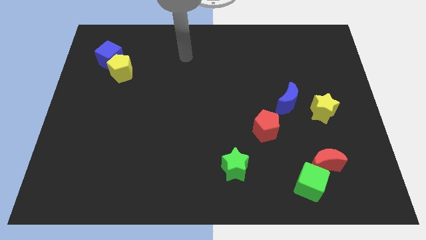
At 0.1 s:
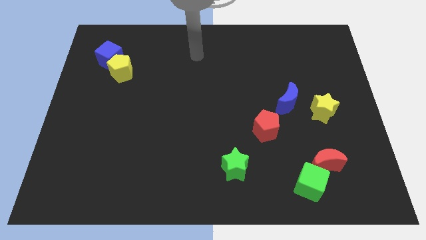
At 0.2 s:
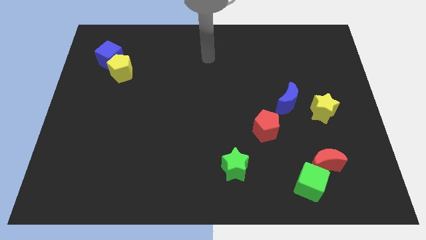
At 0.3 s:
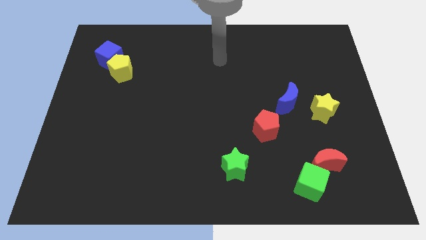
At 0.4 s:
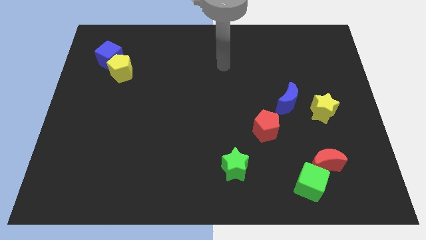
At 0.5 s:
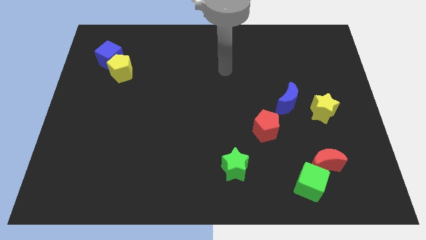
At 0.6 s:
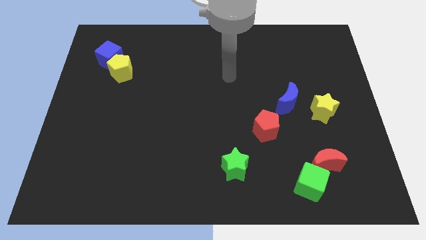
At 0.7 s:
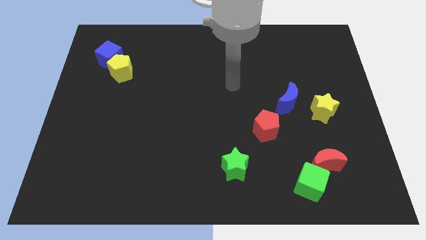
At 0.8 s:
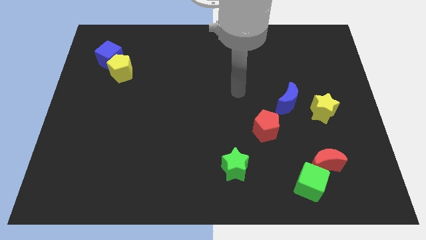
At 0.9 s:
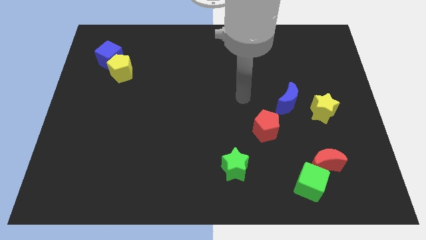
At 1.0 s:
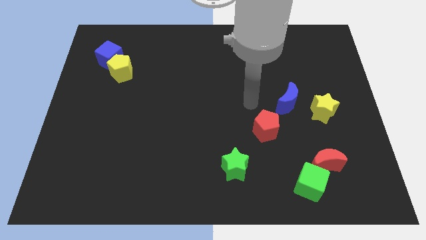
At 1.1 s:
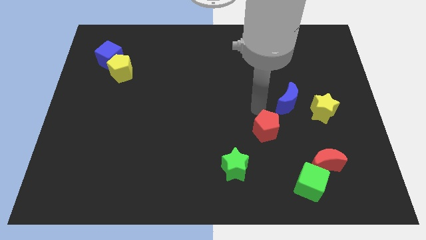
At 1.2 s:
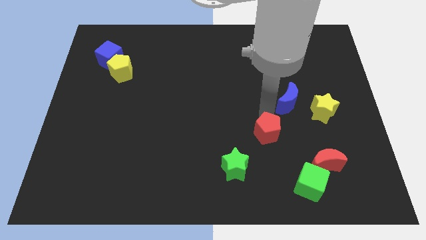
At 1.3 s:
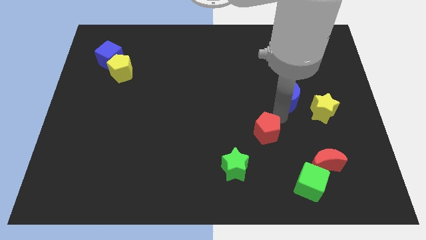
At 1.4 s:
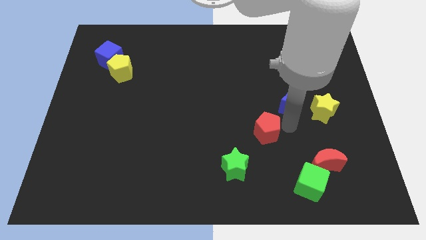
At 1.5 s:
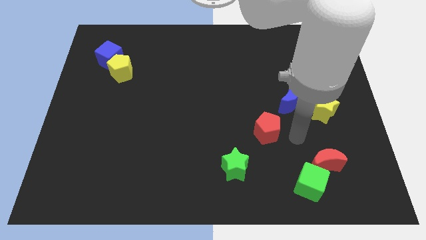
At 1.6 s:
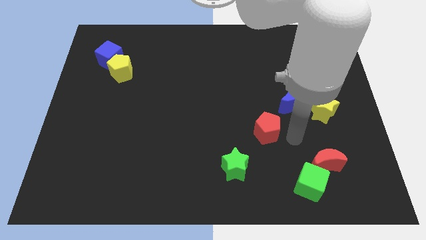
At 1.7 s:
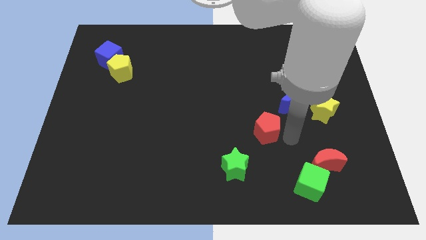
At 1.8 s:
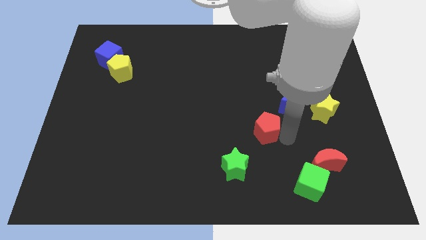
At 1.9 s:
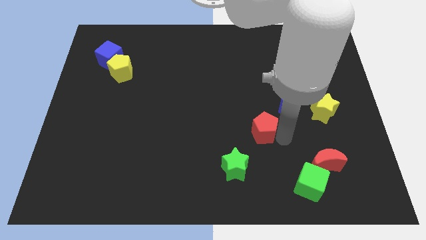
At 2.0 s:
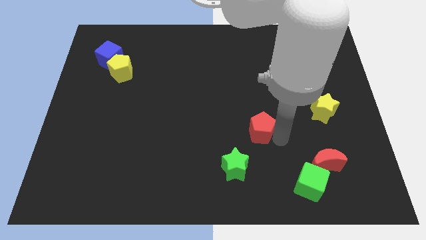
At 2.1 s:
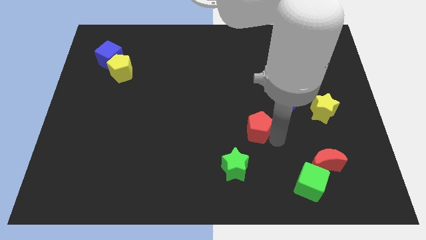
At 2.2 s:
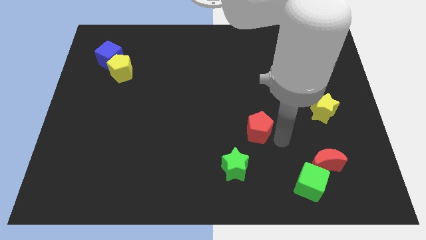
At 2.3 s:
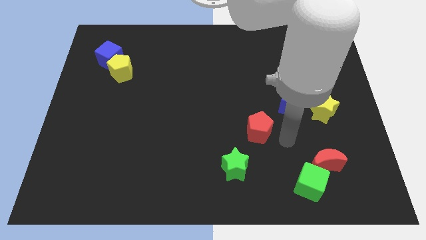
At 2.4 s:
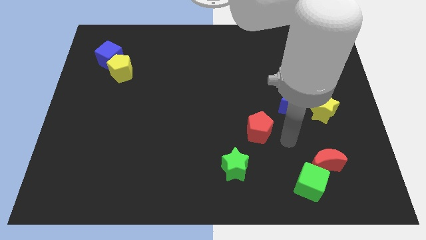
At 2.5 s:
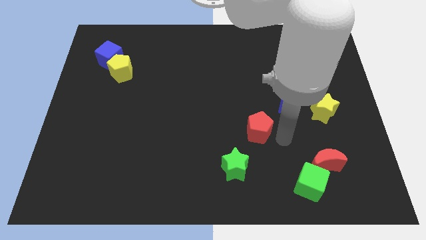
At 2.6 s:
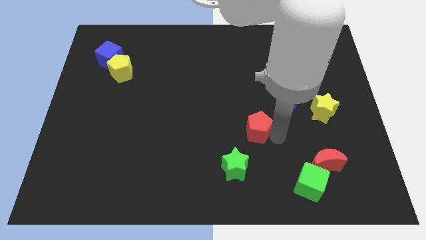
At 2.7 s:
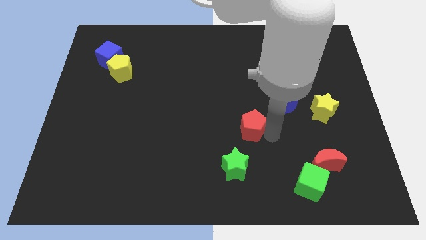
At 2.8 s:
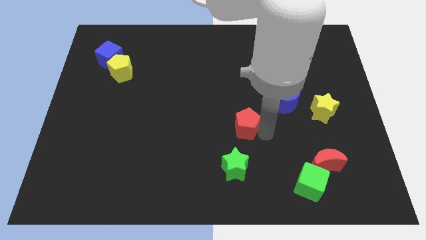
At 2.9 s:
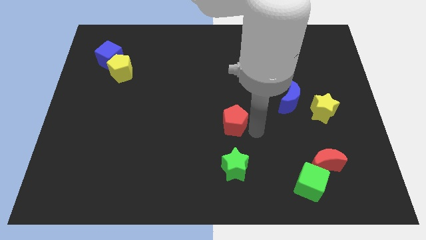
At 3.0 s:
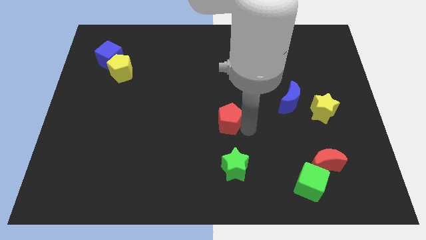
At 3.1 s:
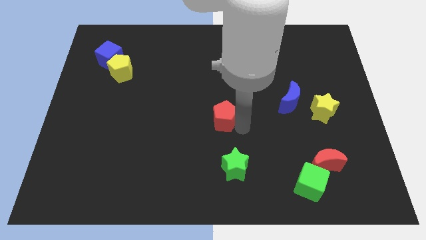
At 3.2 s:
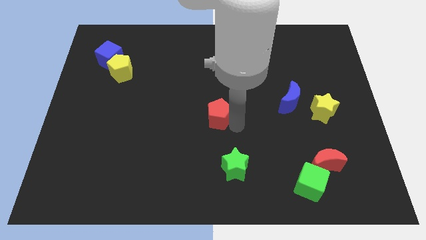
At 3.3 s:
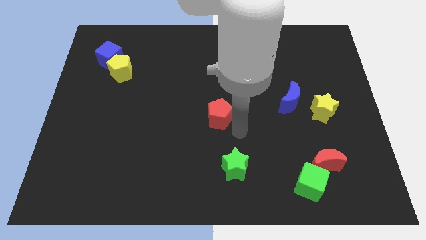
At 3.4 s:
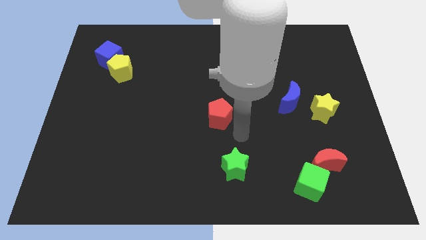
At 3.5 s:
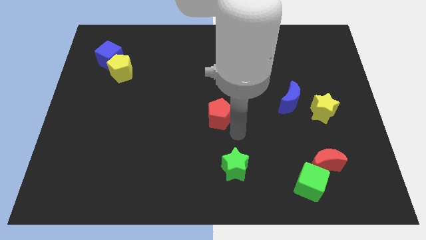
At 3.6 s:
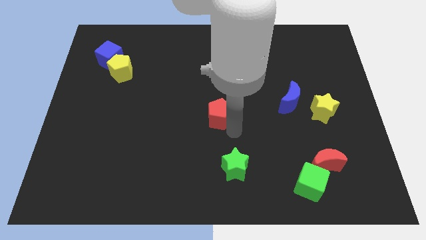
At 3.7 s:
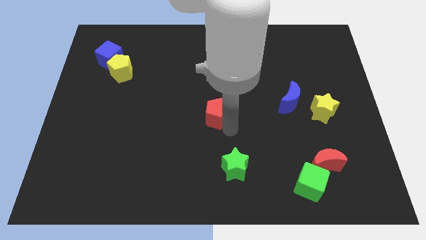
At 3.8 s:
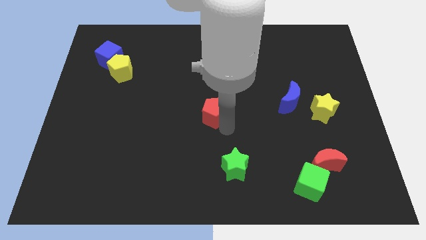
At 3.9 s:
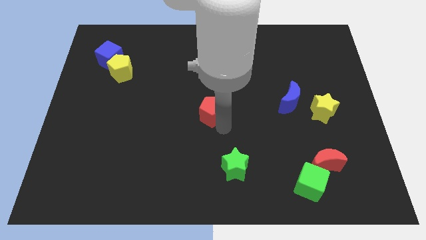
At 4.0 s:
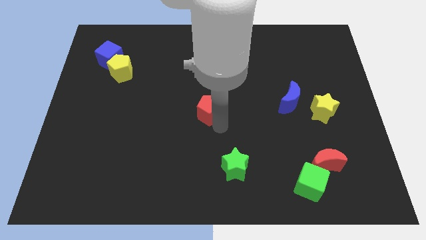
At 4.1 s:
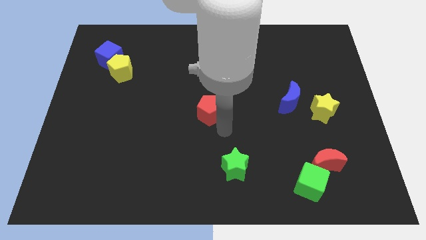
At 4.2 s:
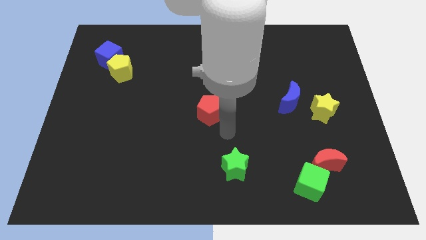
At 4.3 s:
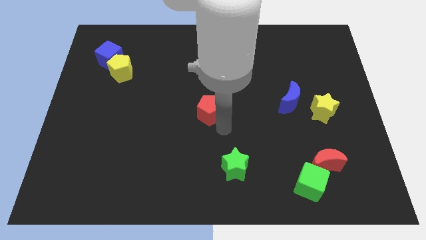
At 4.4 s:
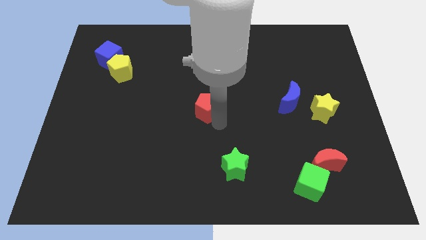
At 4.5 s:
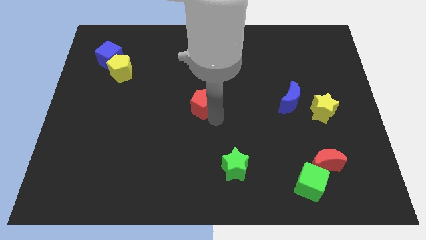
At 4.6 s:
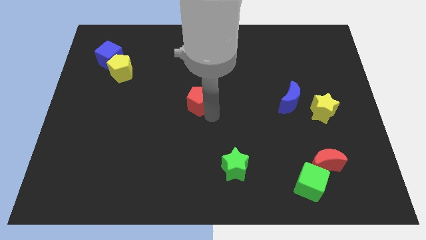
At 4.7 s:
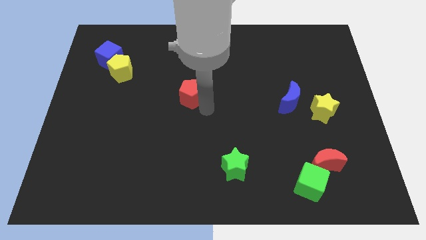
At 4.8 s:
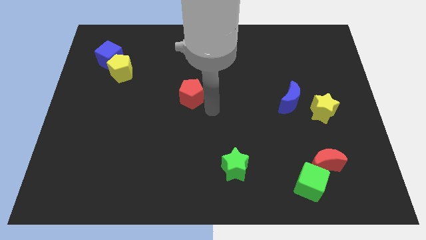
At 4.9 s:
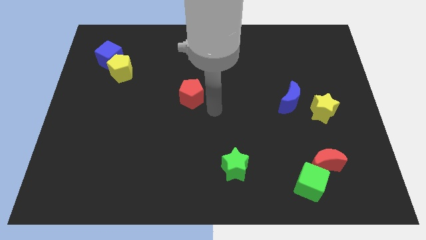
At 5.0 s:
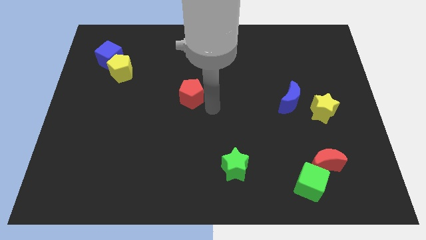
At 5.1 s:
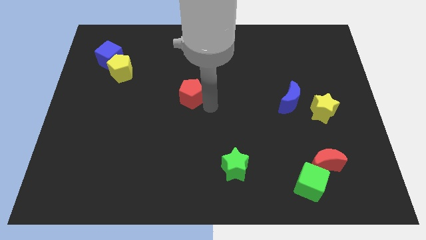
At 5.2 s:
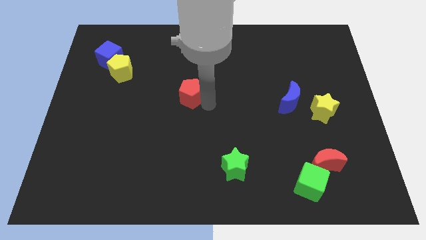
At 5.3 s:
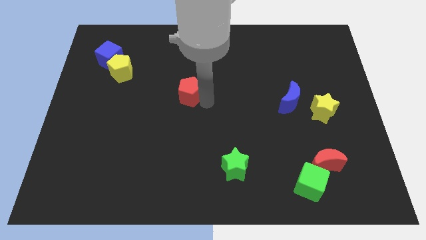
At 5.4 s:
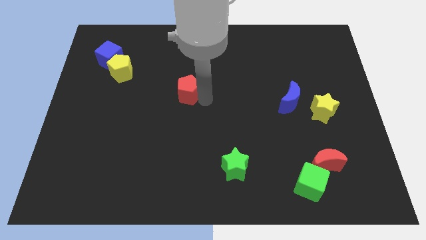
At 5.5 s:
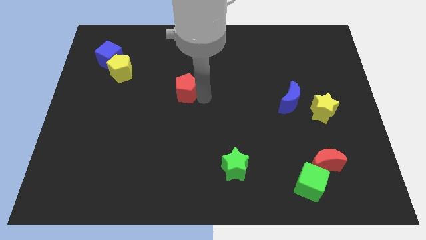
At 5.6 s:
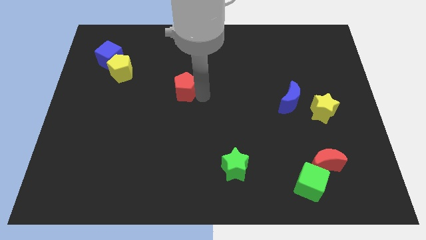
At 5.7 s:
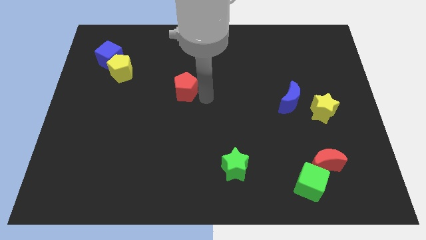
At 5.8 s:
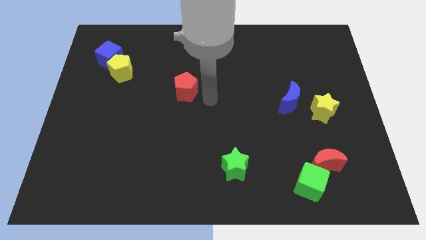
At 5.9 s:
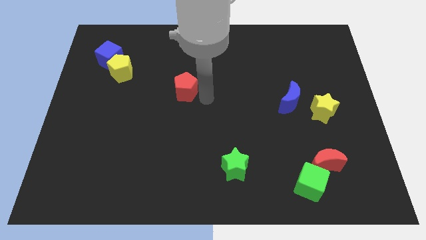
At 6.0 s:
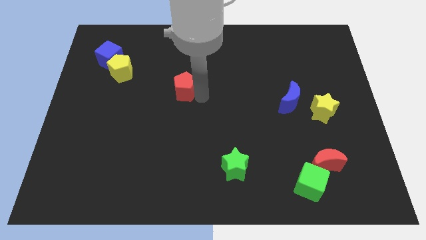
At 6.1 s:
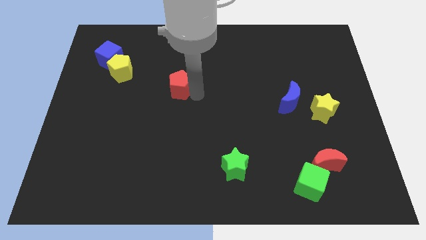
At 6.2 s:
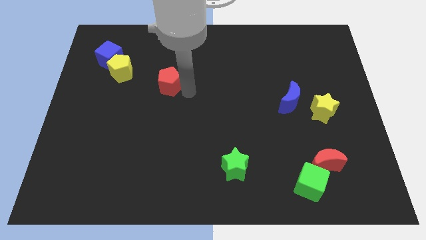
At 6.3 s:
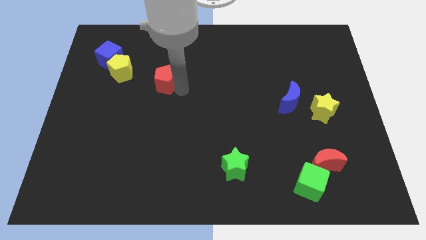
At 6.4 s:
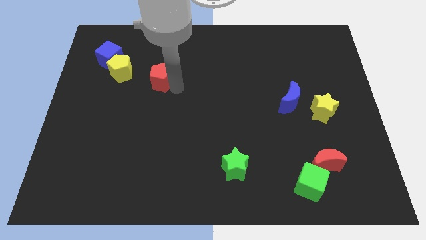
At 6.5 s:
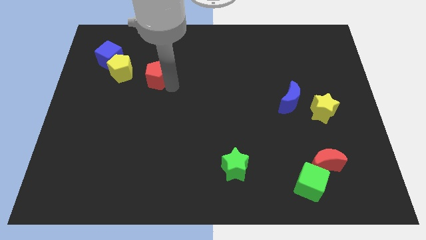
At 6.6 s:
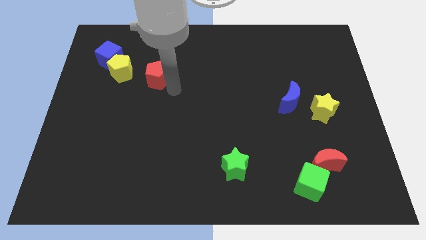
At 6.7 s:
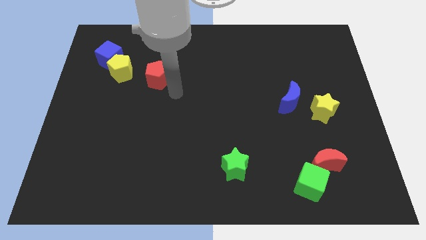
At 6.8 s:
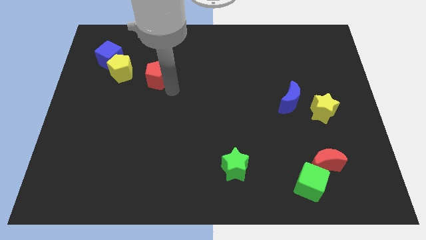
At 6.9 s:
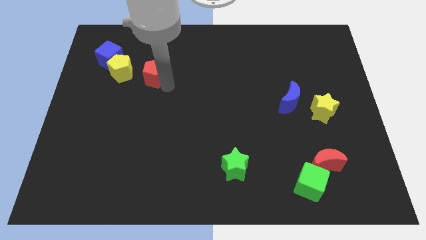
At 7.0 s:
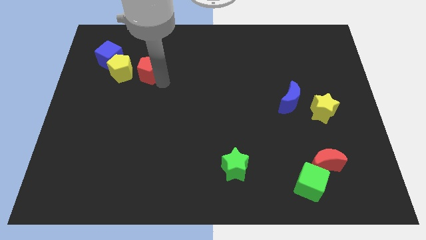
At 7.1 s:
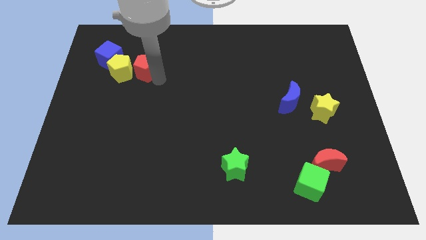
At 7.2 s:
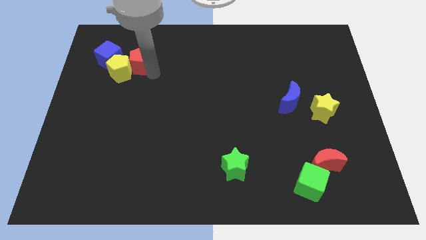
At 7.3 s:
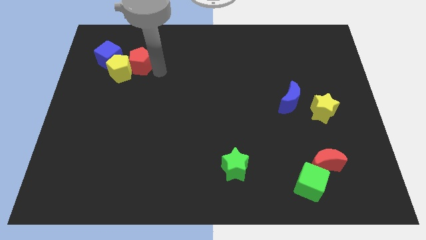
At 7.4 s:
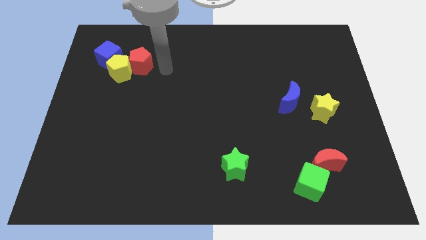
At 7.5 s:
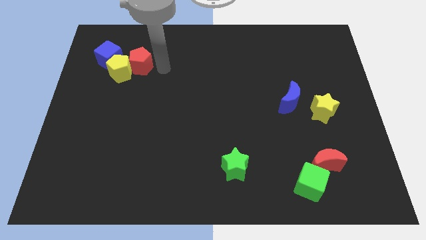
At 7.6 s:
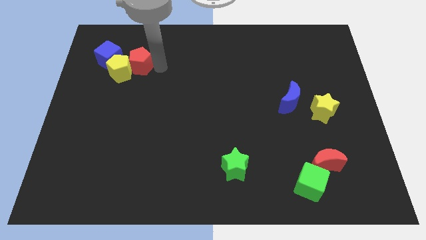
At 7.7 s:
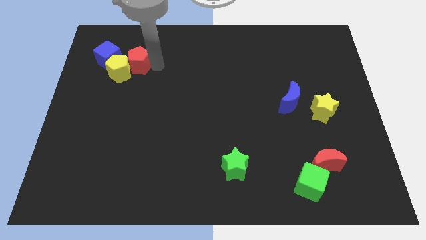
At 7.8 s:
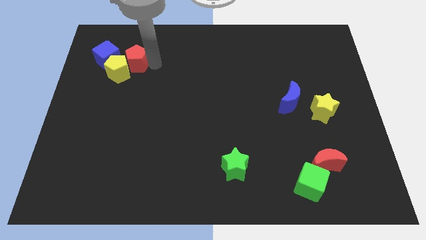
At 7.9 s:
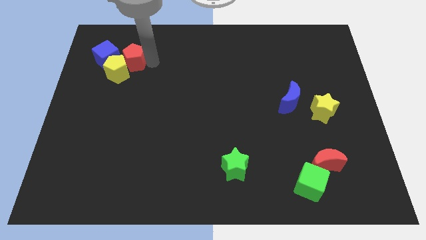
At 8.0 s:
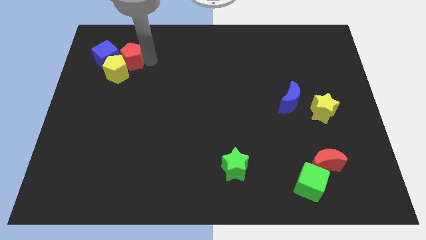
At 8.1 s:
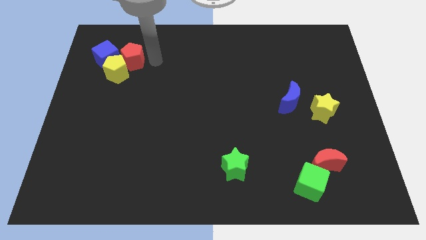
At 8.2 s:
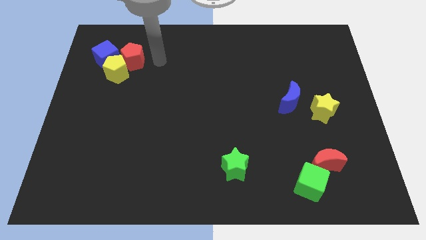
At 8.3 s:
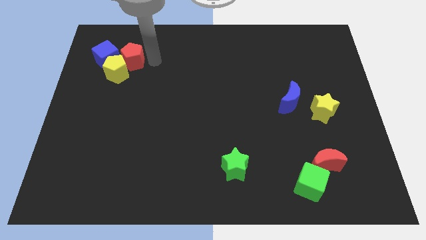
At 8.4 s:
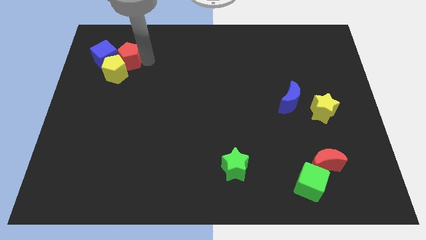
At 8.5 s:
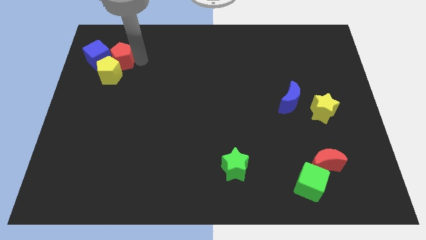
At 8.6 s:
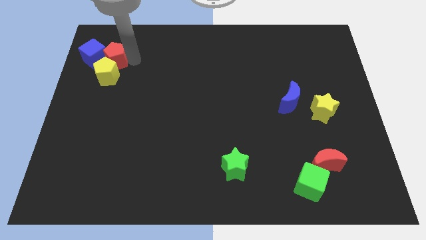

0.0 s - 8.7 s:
push the red pentagon towards the blue cube
